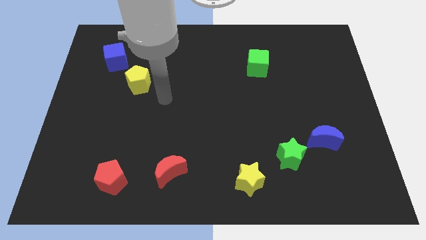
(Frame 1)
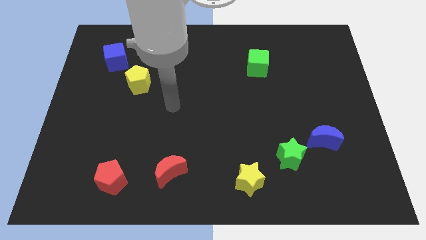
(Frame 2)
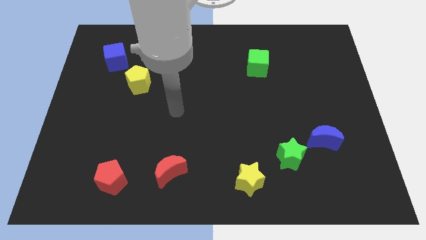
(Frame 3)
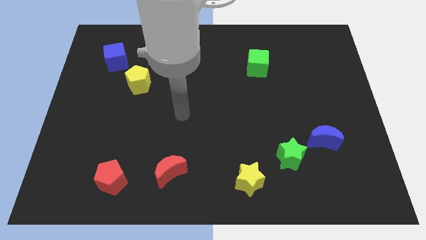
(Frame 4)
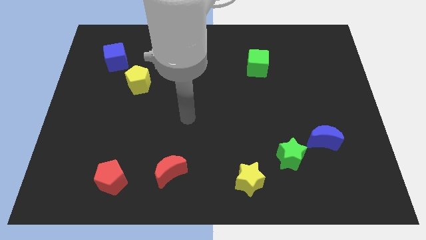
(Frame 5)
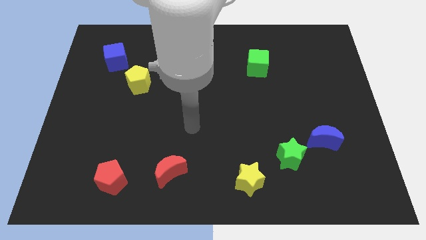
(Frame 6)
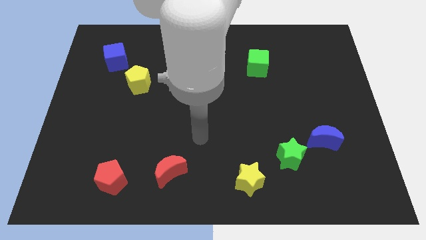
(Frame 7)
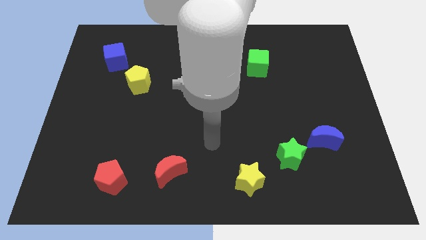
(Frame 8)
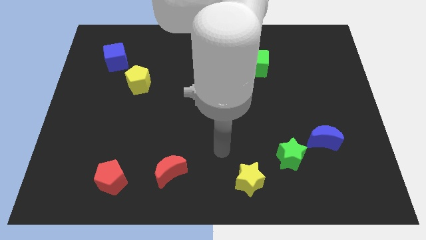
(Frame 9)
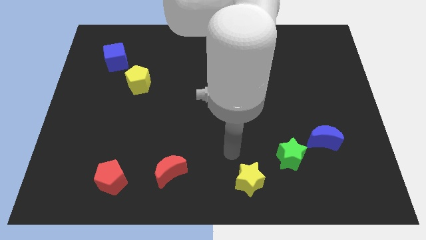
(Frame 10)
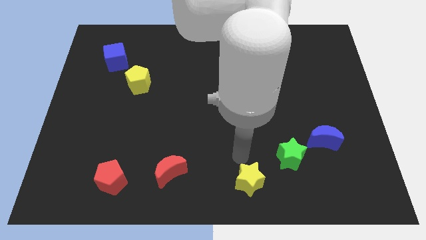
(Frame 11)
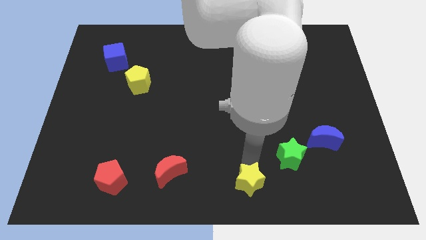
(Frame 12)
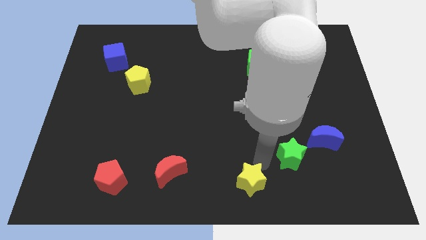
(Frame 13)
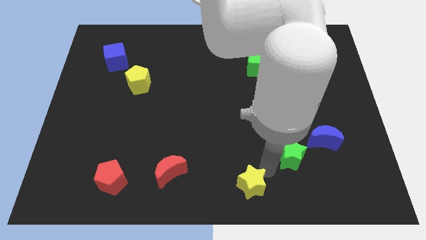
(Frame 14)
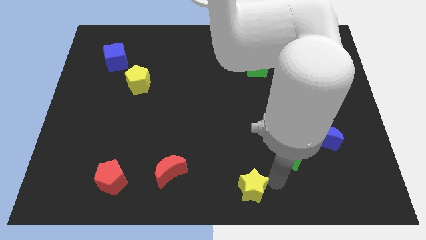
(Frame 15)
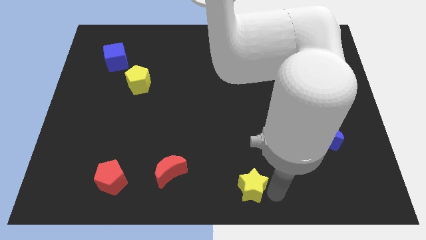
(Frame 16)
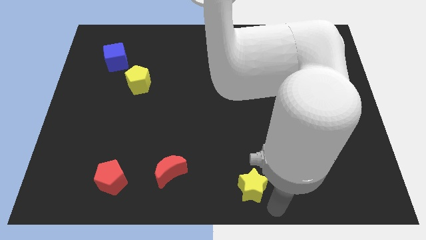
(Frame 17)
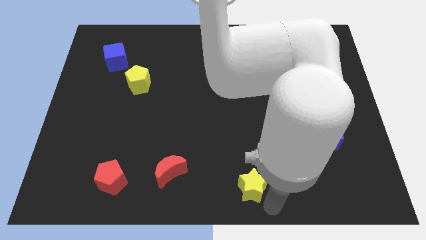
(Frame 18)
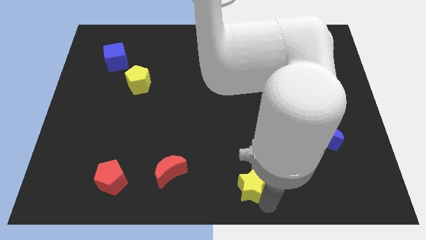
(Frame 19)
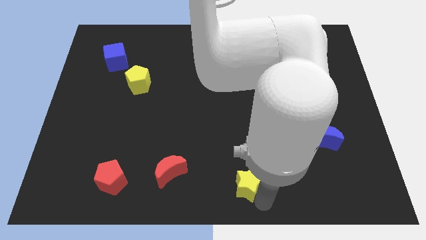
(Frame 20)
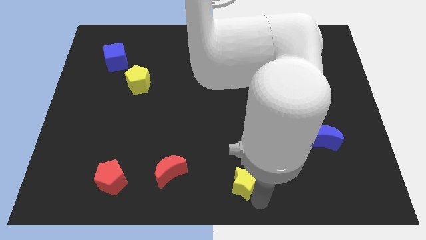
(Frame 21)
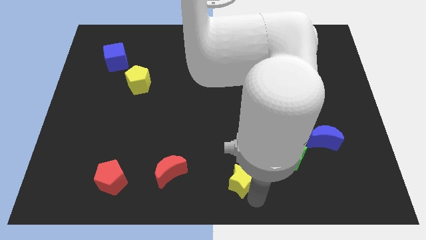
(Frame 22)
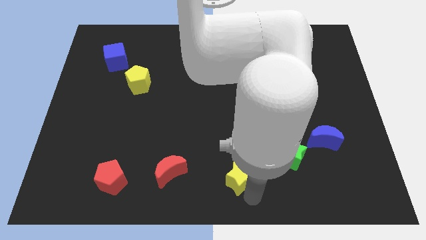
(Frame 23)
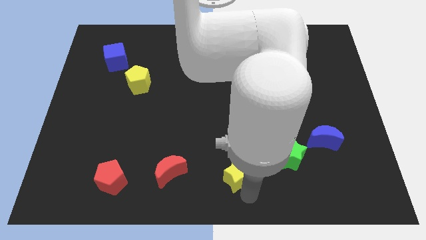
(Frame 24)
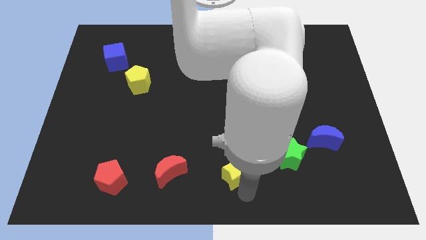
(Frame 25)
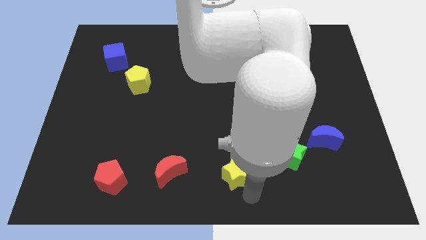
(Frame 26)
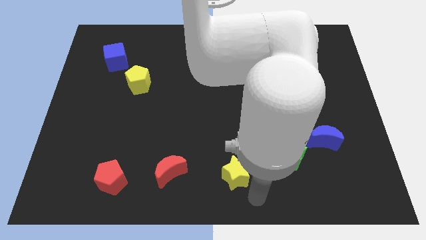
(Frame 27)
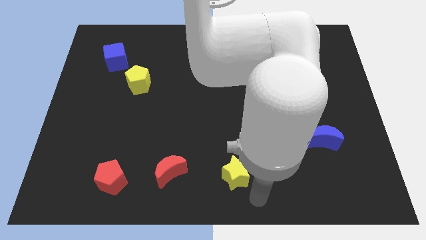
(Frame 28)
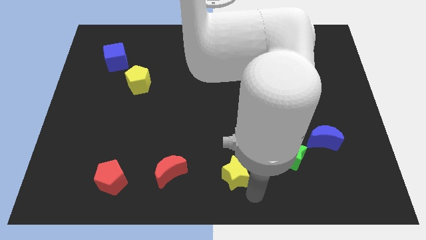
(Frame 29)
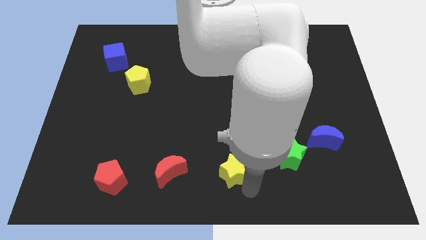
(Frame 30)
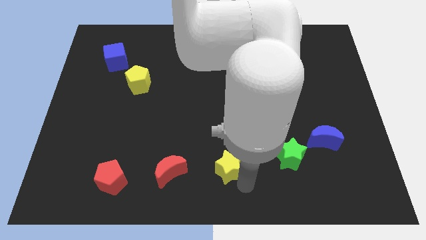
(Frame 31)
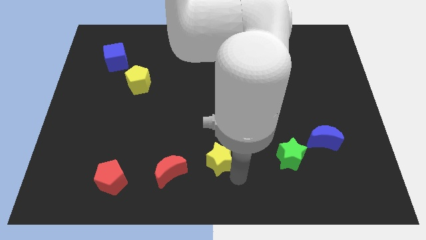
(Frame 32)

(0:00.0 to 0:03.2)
slightly move the yellow star up and then left

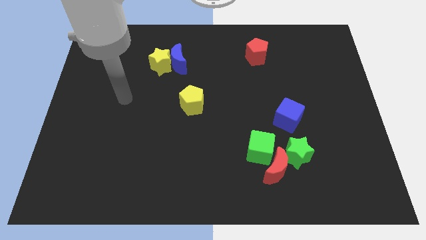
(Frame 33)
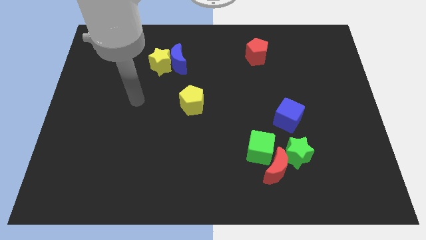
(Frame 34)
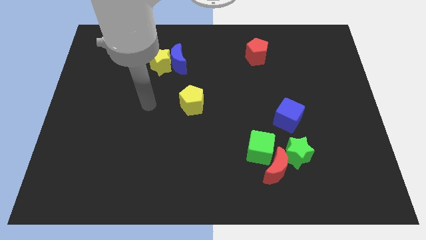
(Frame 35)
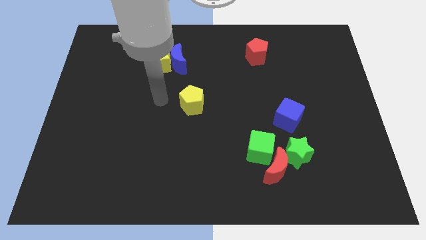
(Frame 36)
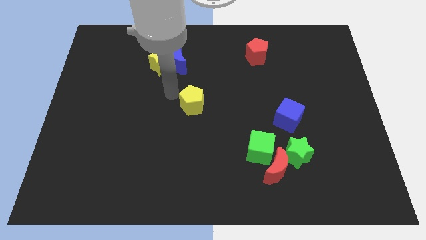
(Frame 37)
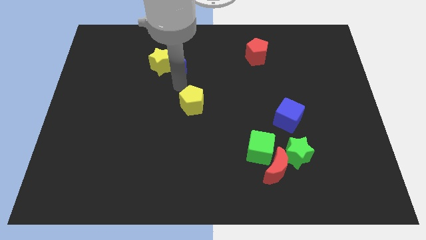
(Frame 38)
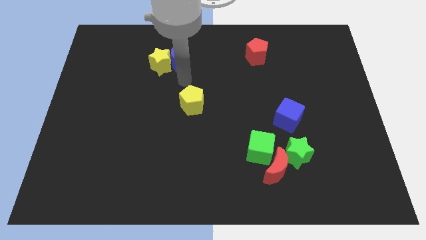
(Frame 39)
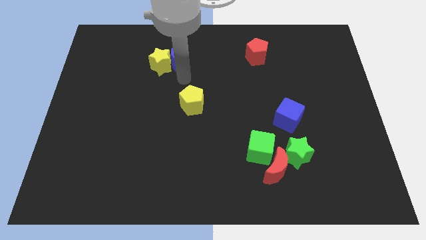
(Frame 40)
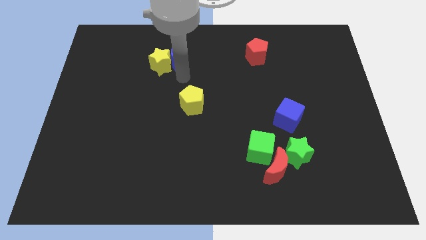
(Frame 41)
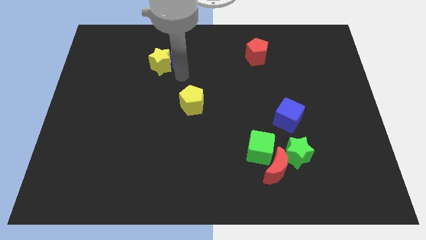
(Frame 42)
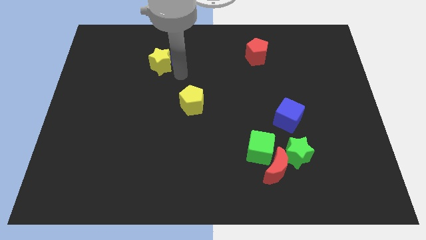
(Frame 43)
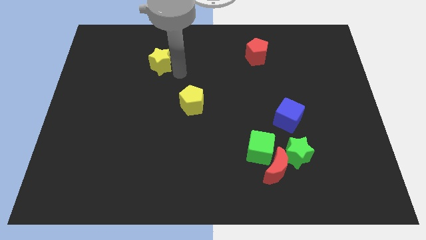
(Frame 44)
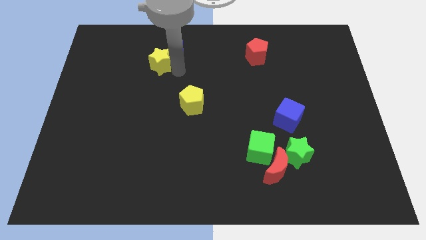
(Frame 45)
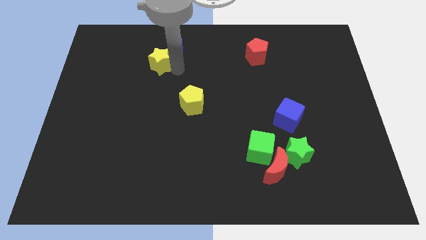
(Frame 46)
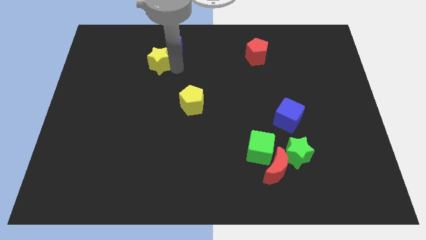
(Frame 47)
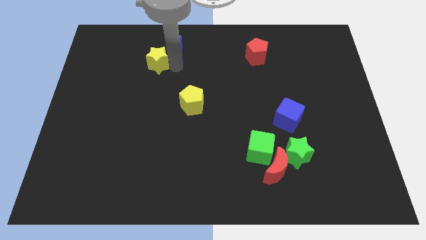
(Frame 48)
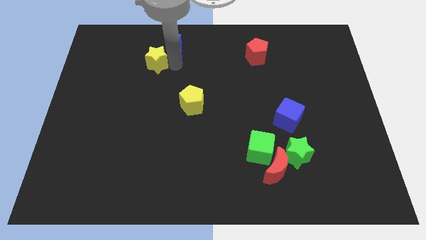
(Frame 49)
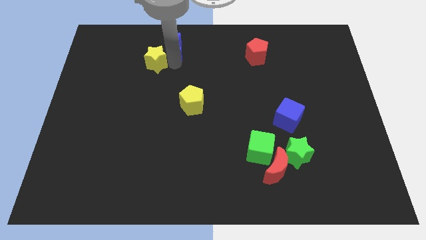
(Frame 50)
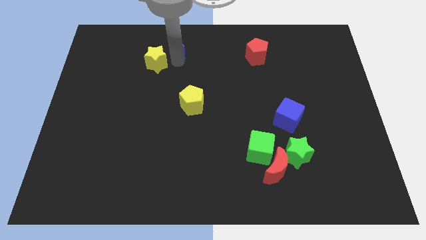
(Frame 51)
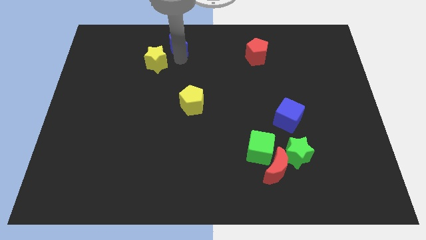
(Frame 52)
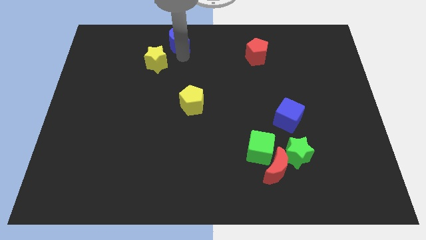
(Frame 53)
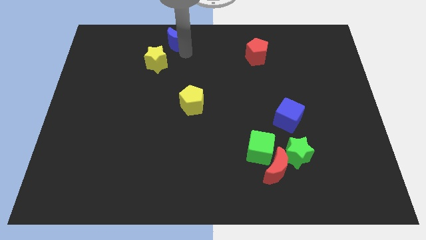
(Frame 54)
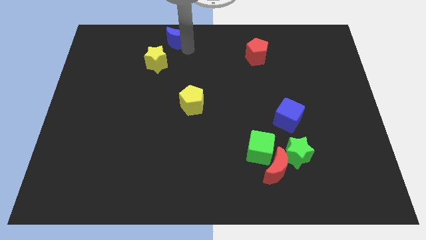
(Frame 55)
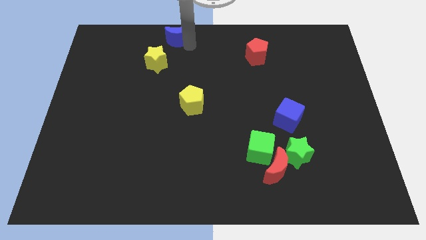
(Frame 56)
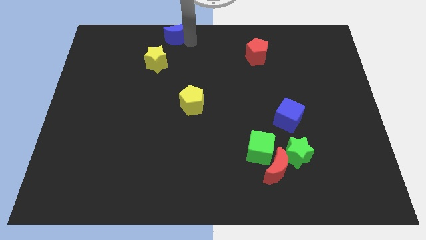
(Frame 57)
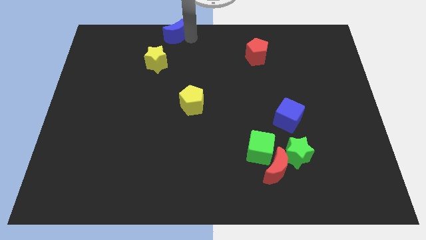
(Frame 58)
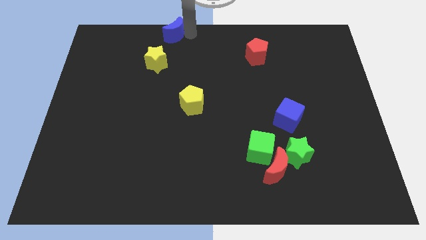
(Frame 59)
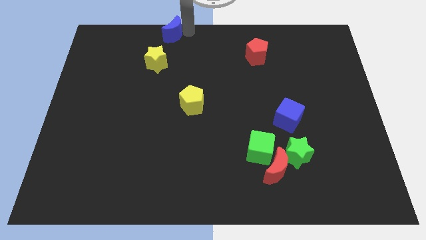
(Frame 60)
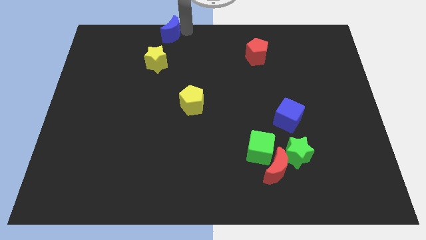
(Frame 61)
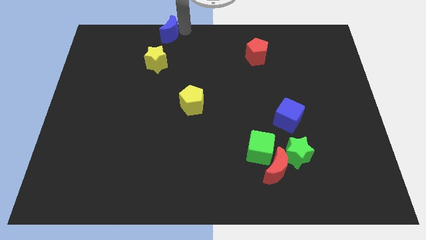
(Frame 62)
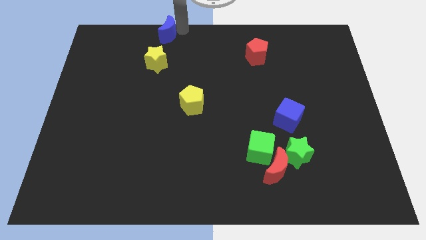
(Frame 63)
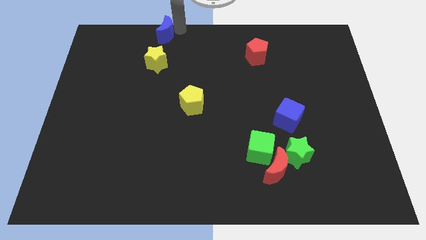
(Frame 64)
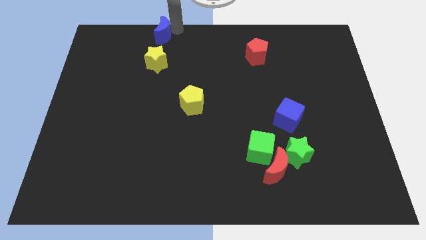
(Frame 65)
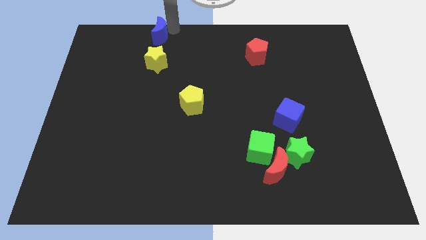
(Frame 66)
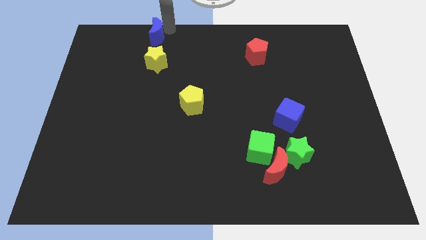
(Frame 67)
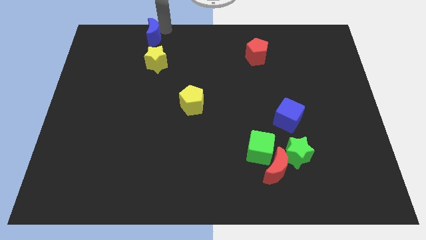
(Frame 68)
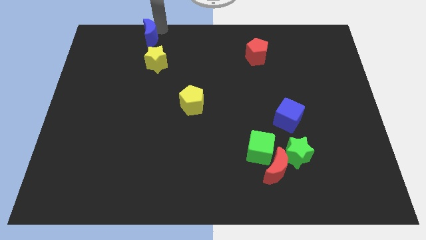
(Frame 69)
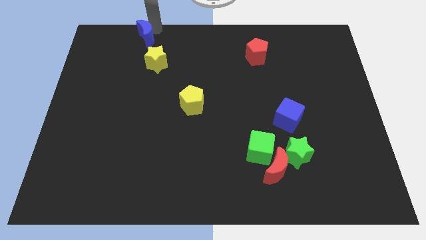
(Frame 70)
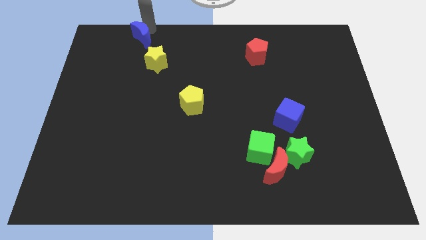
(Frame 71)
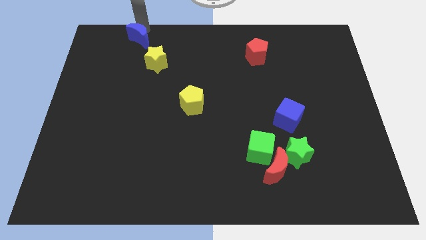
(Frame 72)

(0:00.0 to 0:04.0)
push the blue moon somewhat left

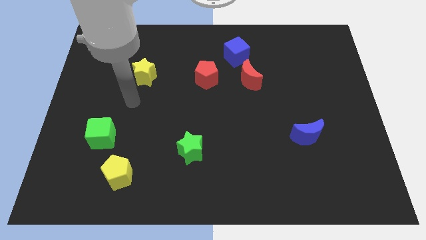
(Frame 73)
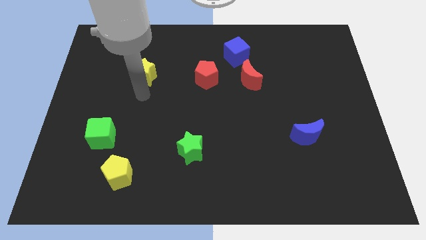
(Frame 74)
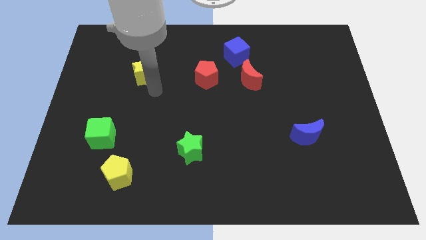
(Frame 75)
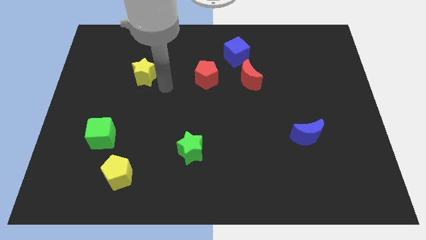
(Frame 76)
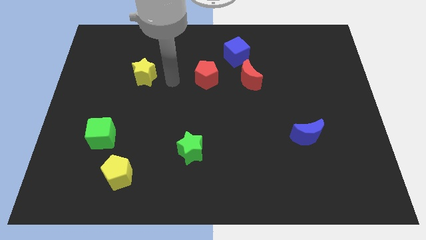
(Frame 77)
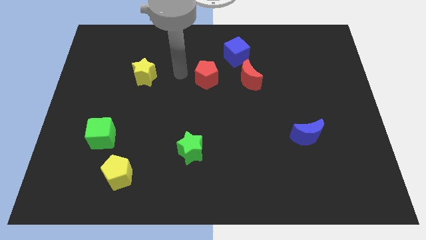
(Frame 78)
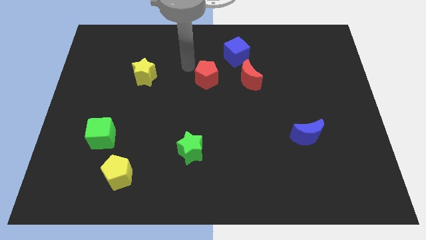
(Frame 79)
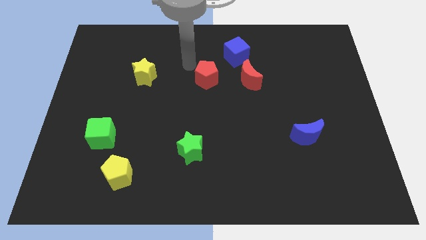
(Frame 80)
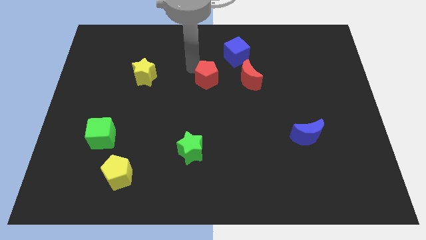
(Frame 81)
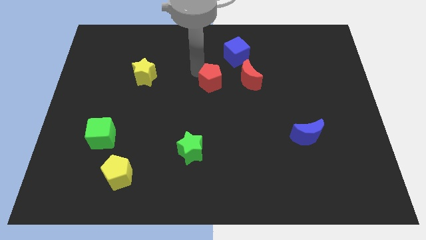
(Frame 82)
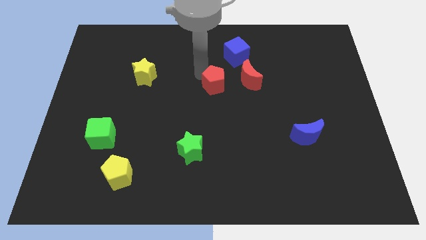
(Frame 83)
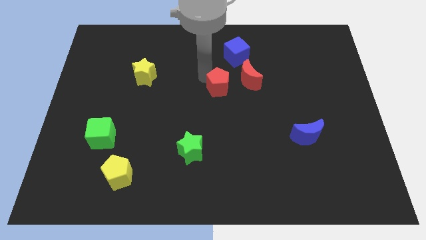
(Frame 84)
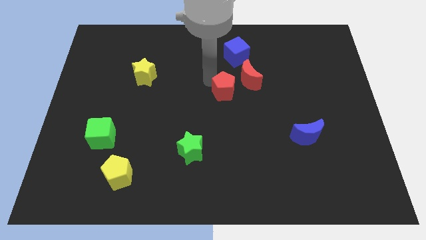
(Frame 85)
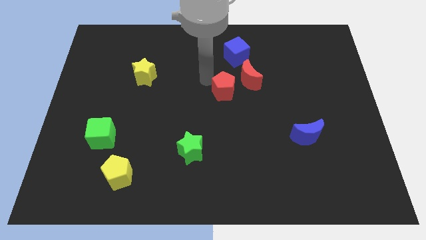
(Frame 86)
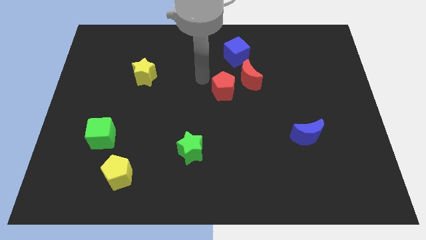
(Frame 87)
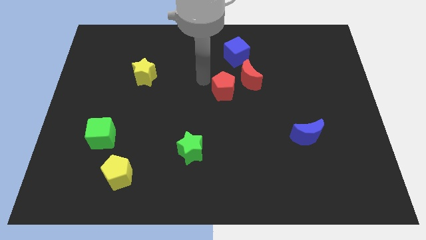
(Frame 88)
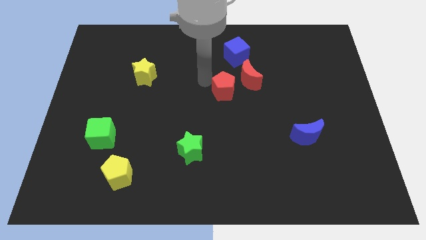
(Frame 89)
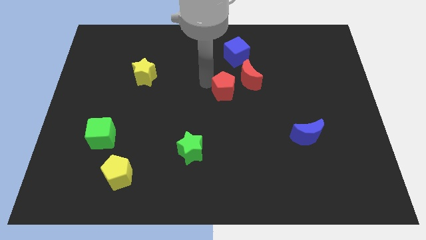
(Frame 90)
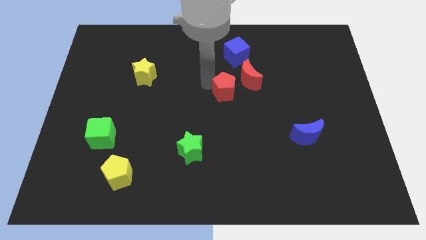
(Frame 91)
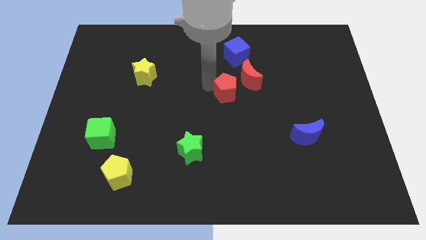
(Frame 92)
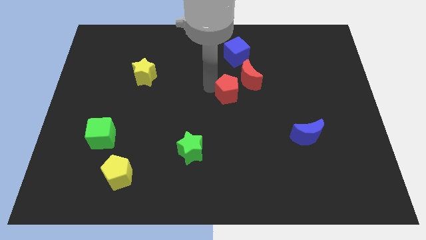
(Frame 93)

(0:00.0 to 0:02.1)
slide the red pentagon down and to the right diagonally a little bit
